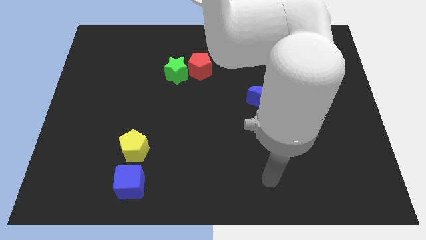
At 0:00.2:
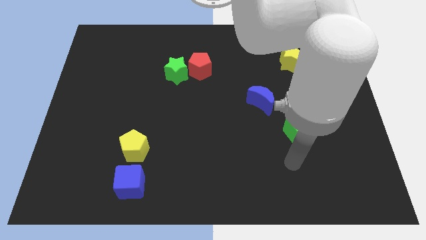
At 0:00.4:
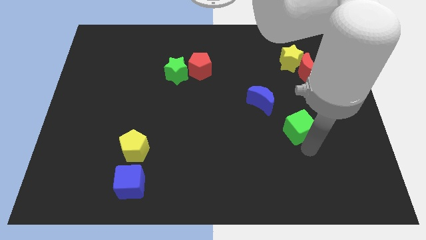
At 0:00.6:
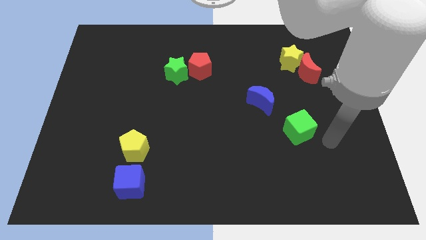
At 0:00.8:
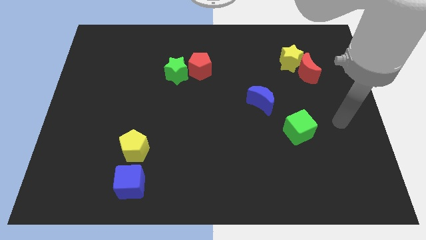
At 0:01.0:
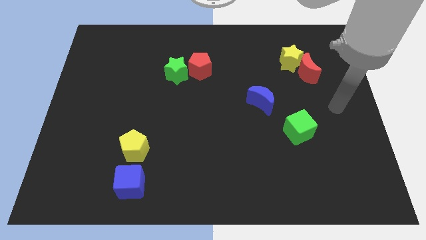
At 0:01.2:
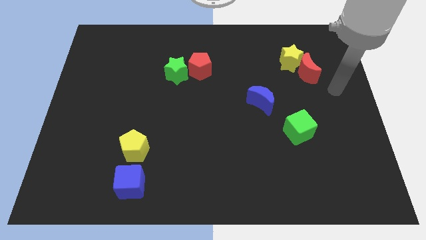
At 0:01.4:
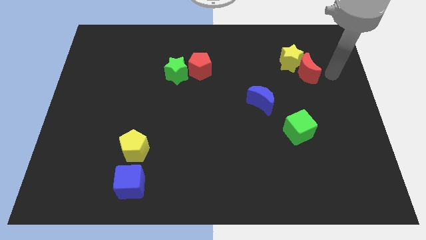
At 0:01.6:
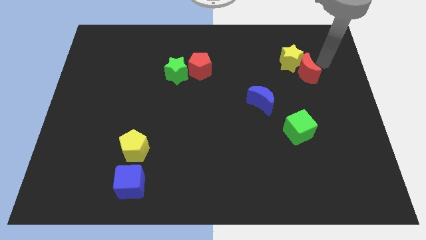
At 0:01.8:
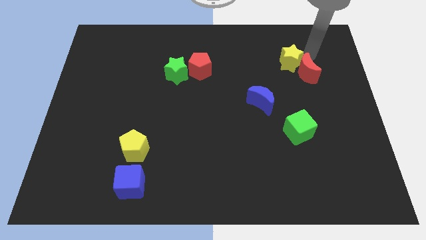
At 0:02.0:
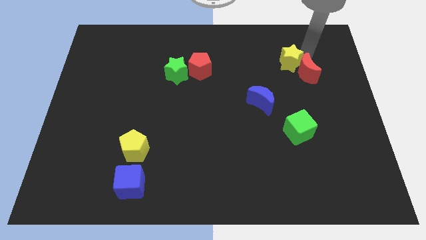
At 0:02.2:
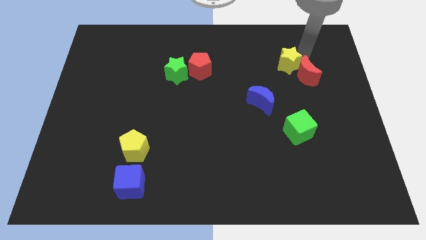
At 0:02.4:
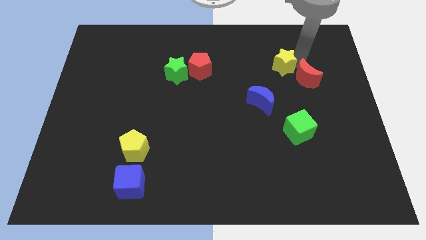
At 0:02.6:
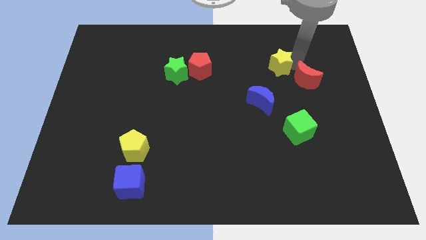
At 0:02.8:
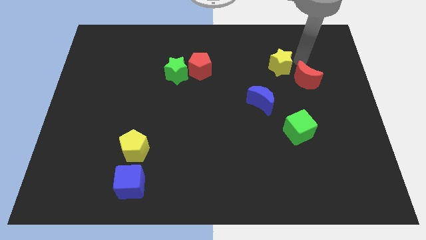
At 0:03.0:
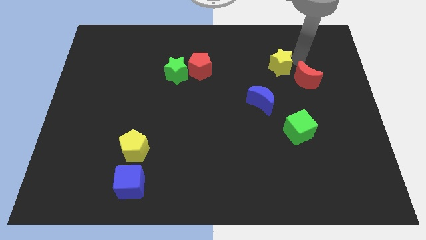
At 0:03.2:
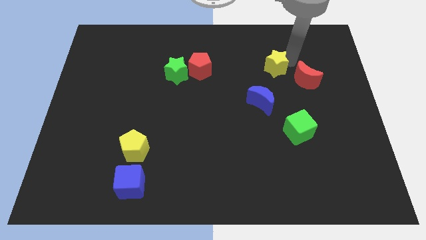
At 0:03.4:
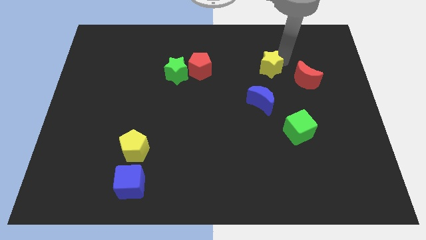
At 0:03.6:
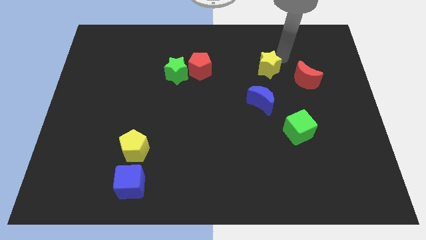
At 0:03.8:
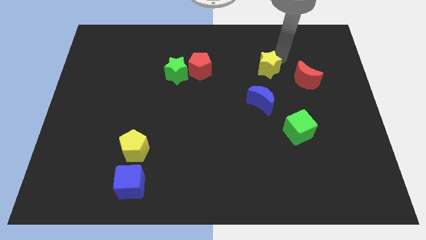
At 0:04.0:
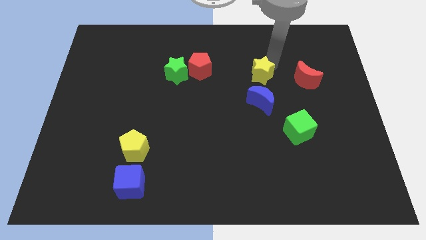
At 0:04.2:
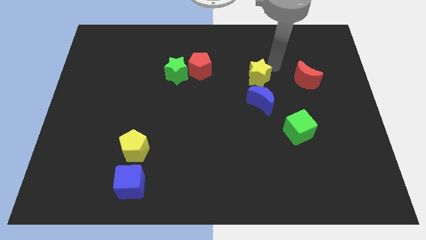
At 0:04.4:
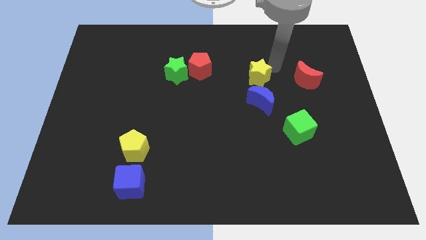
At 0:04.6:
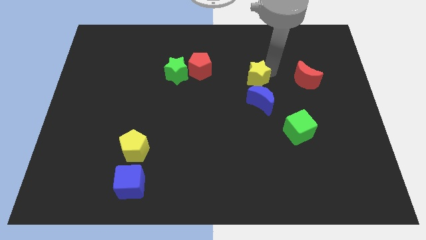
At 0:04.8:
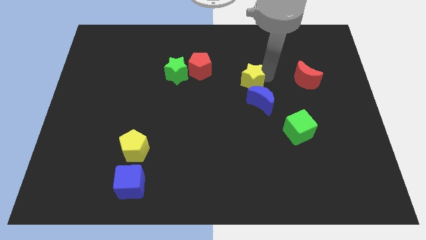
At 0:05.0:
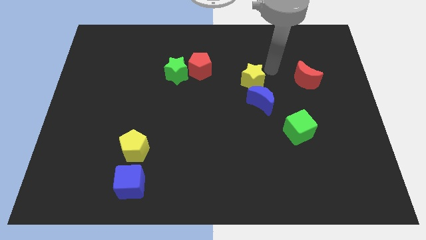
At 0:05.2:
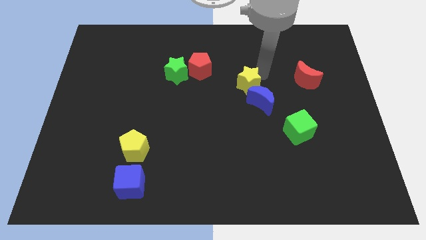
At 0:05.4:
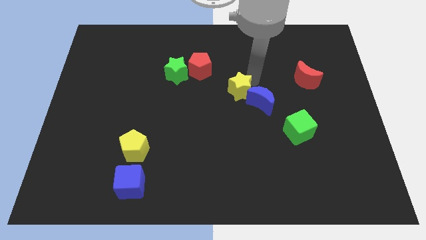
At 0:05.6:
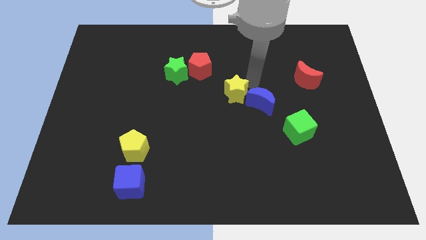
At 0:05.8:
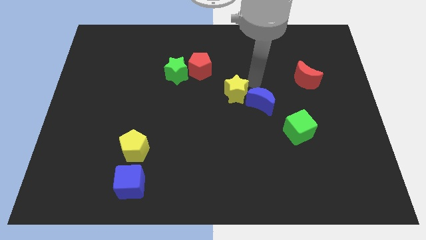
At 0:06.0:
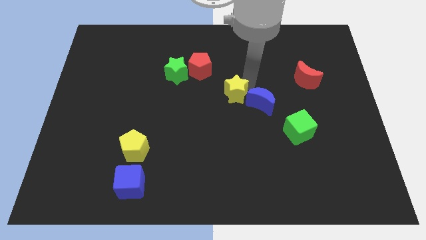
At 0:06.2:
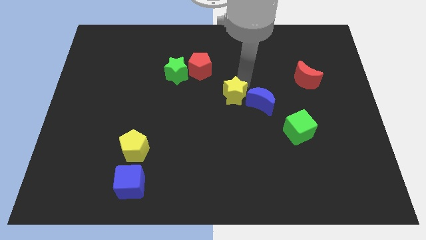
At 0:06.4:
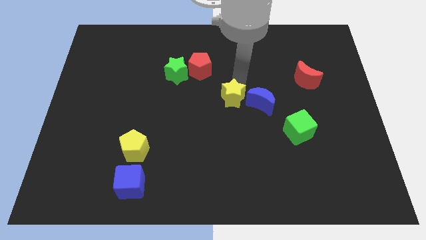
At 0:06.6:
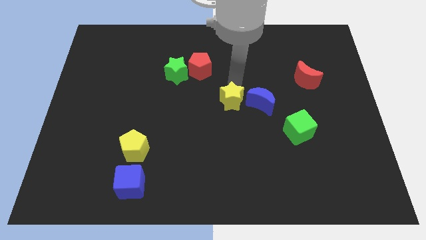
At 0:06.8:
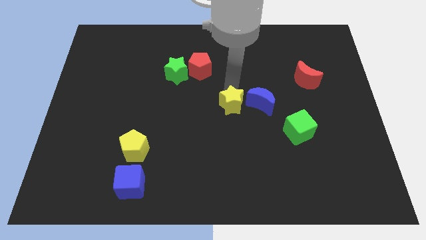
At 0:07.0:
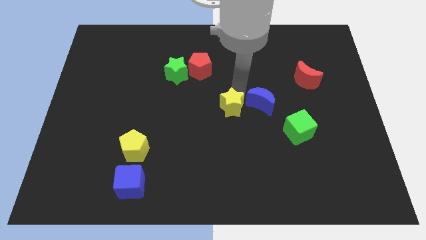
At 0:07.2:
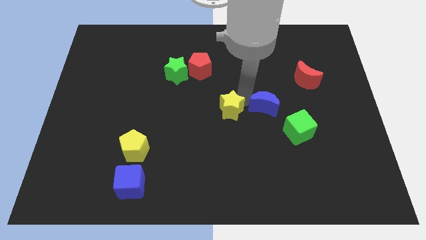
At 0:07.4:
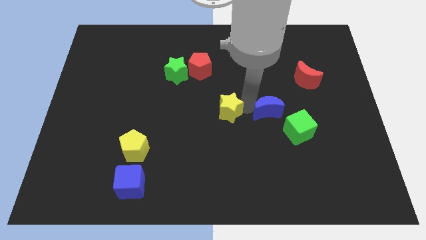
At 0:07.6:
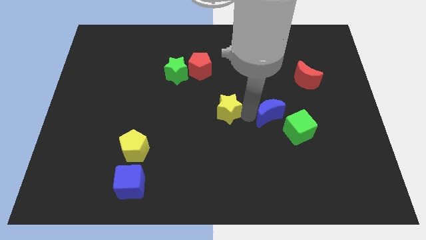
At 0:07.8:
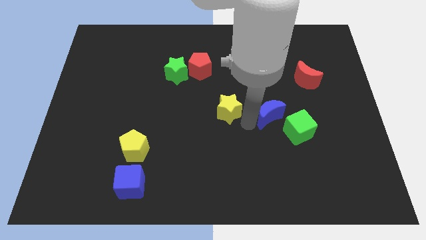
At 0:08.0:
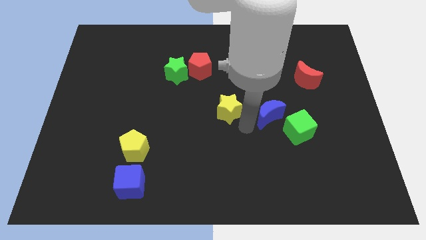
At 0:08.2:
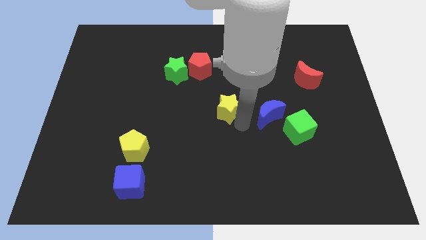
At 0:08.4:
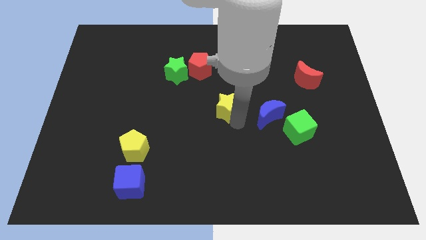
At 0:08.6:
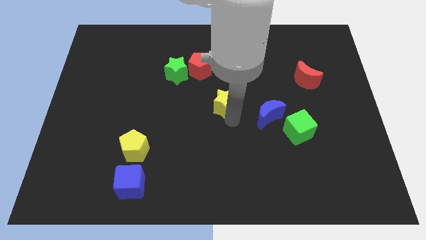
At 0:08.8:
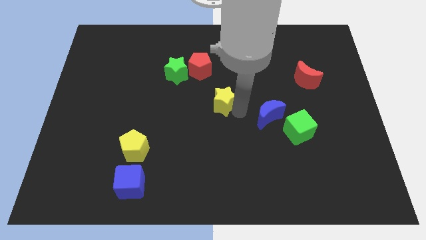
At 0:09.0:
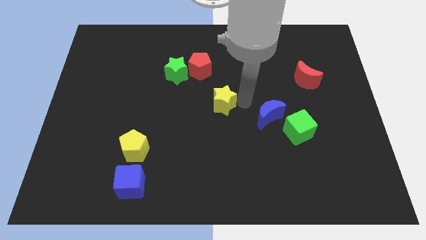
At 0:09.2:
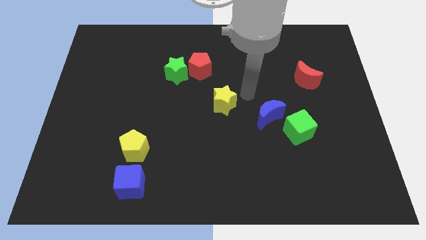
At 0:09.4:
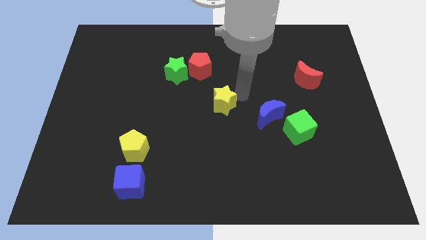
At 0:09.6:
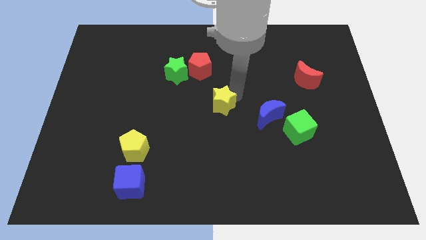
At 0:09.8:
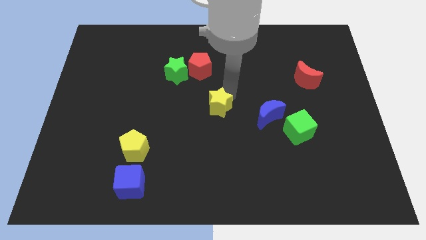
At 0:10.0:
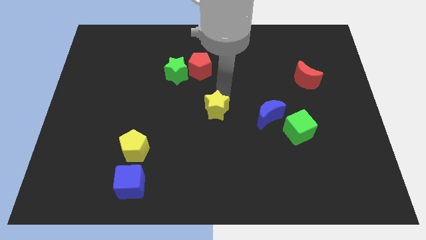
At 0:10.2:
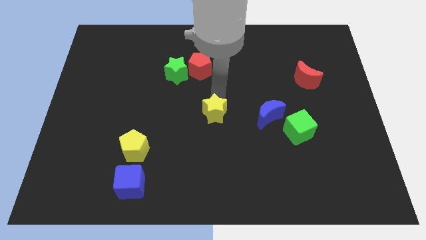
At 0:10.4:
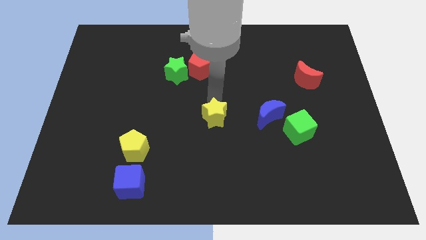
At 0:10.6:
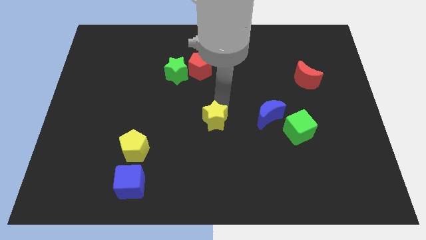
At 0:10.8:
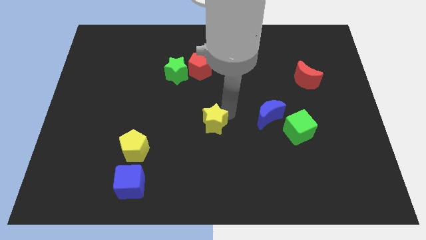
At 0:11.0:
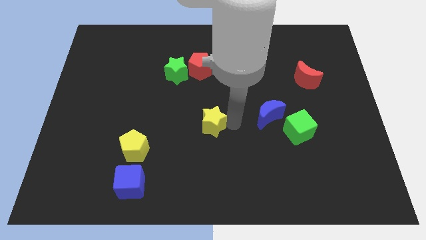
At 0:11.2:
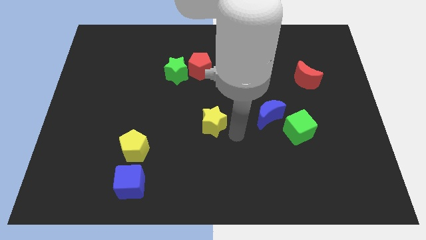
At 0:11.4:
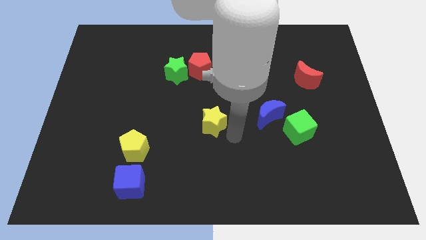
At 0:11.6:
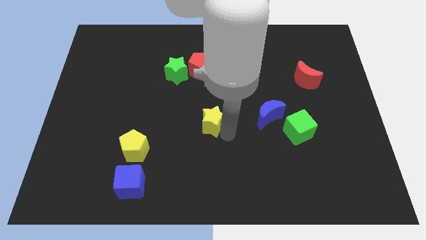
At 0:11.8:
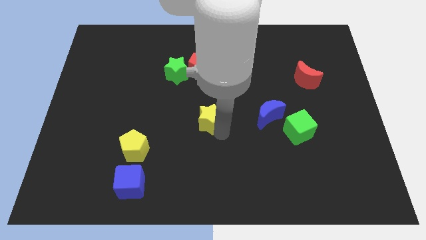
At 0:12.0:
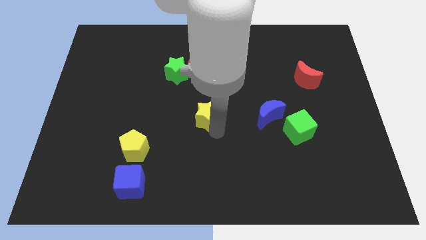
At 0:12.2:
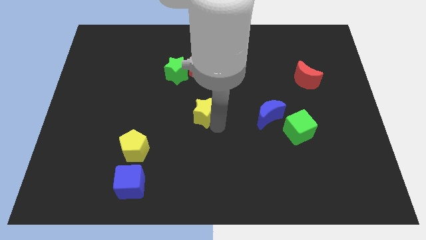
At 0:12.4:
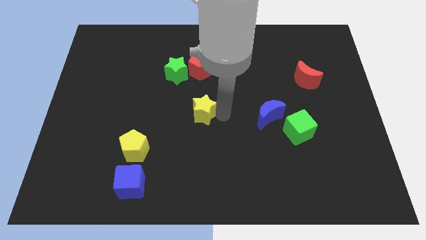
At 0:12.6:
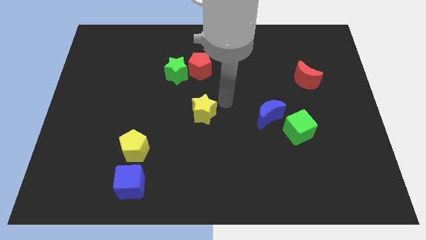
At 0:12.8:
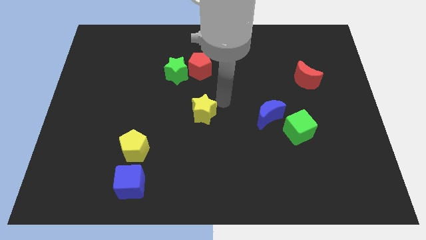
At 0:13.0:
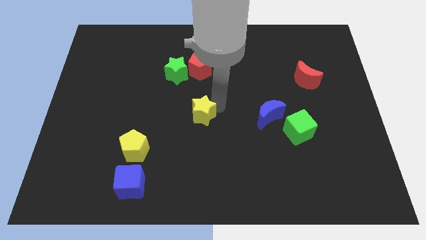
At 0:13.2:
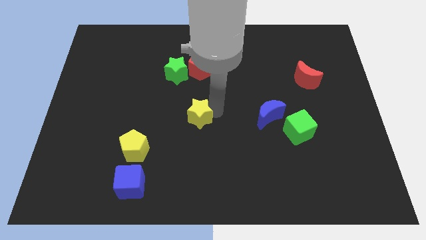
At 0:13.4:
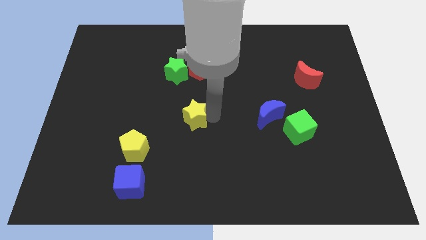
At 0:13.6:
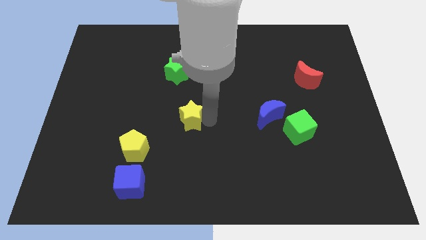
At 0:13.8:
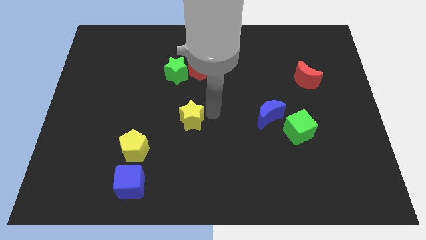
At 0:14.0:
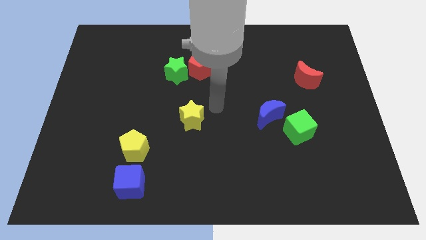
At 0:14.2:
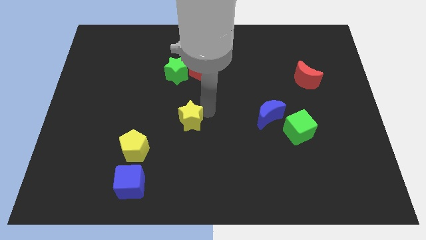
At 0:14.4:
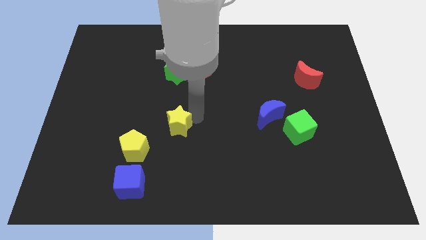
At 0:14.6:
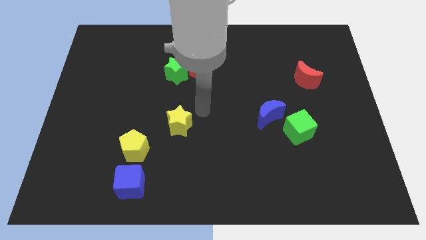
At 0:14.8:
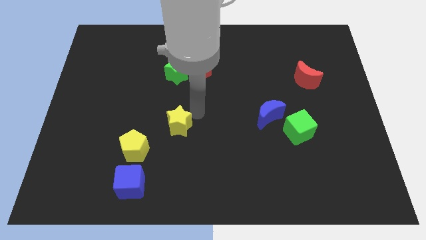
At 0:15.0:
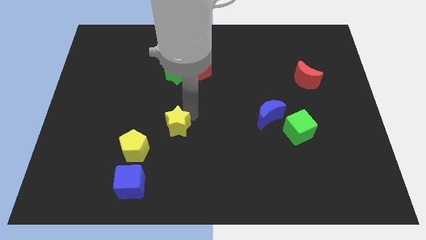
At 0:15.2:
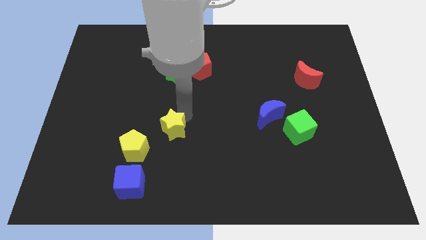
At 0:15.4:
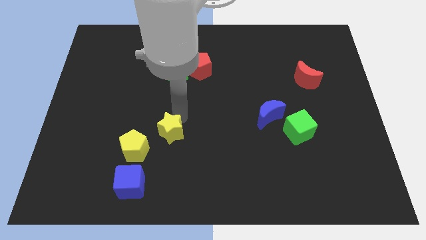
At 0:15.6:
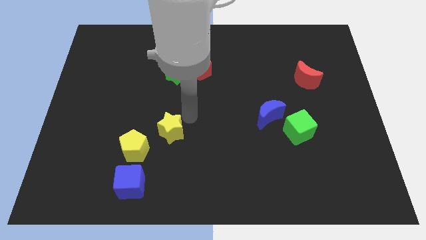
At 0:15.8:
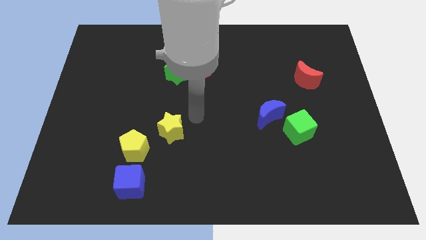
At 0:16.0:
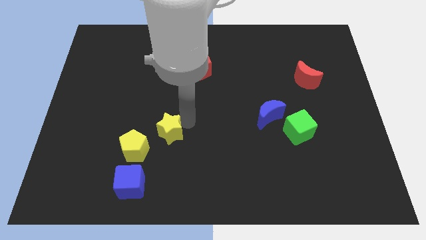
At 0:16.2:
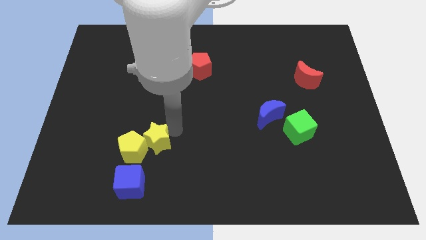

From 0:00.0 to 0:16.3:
push the yellow star to the yellow pentagon
